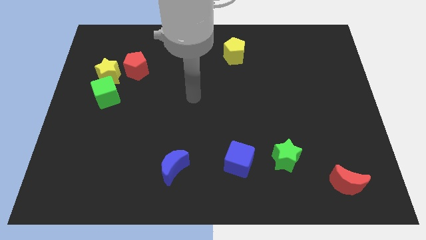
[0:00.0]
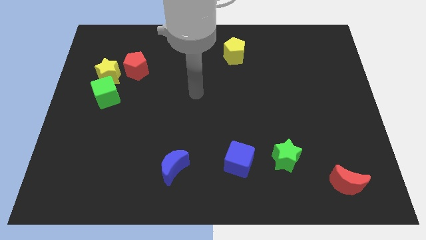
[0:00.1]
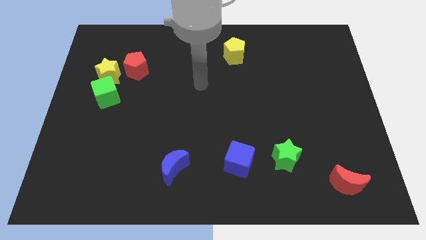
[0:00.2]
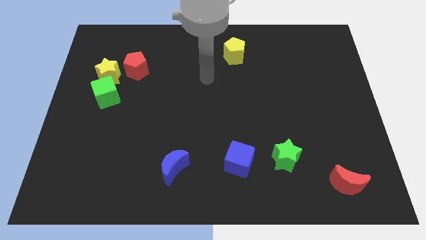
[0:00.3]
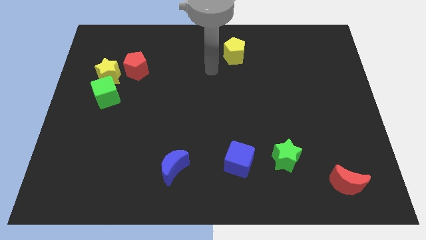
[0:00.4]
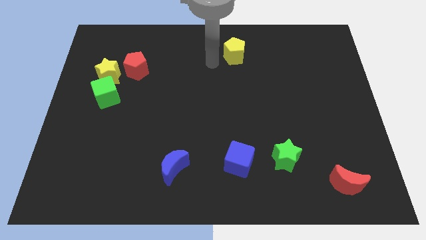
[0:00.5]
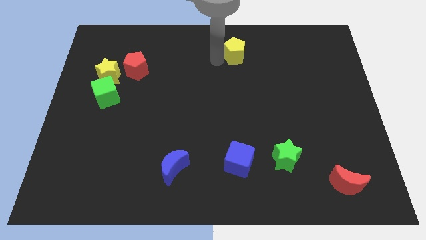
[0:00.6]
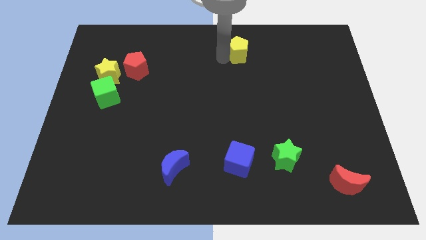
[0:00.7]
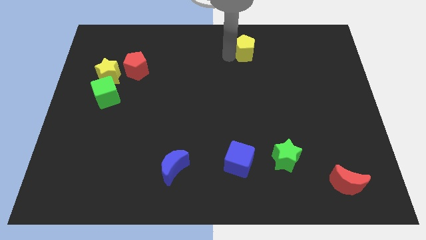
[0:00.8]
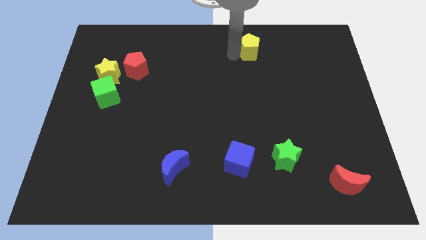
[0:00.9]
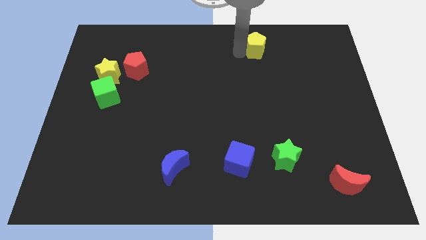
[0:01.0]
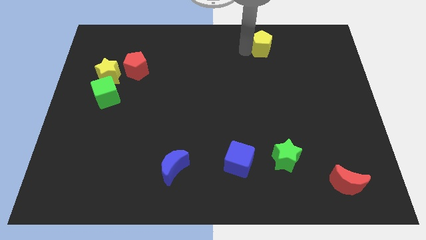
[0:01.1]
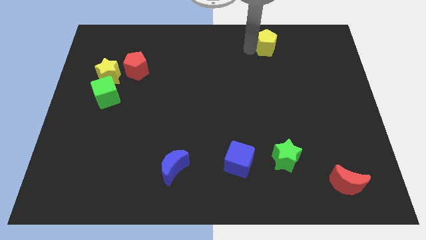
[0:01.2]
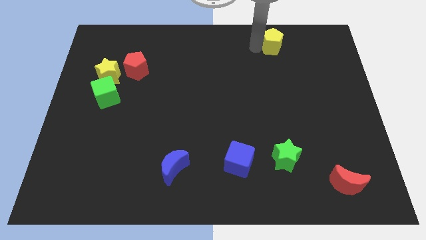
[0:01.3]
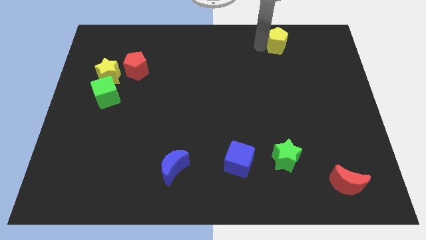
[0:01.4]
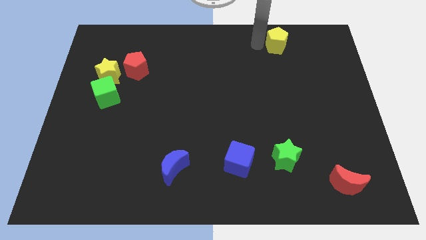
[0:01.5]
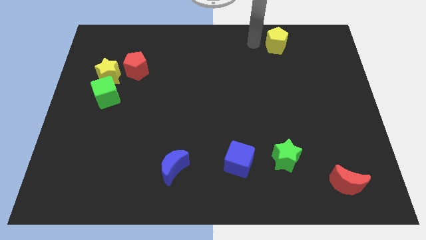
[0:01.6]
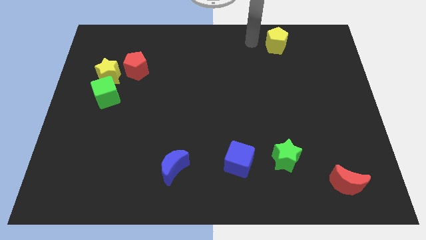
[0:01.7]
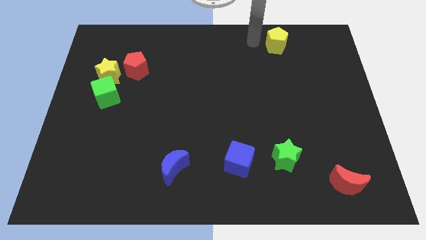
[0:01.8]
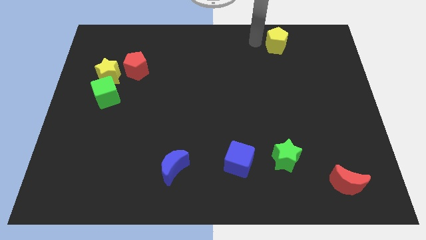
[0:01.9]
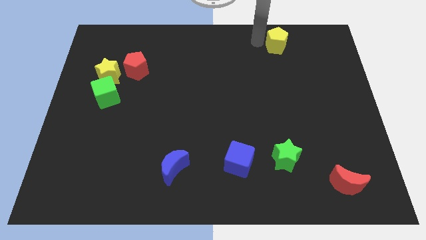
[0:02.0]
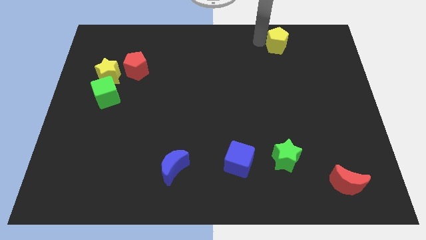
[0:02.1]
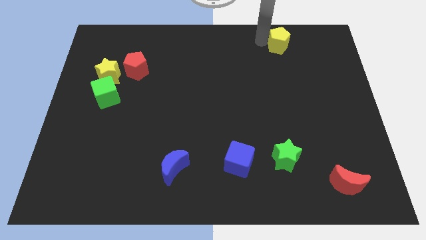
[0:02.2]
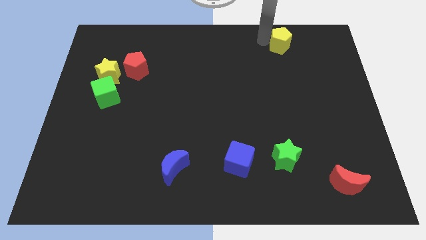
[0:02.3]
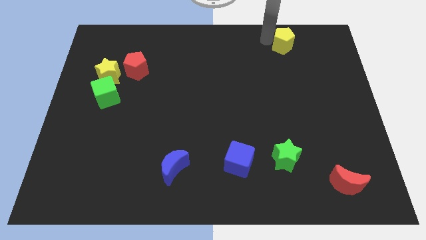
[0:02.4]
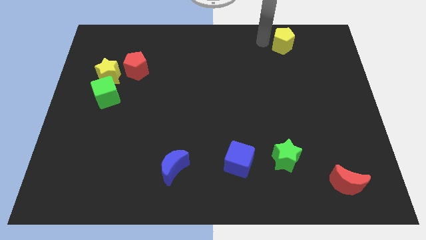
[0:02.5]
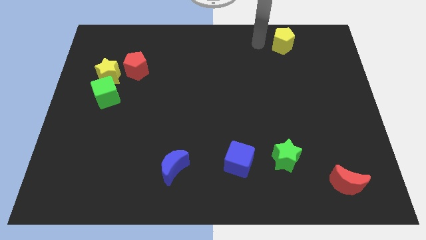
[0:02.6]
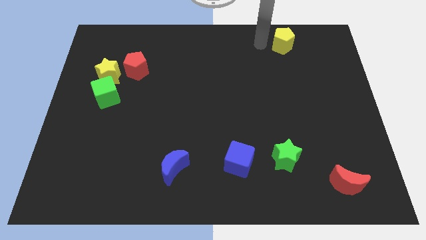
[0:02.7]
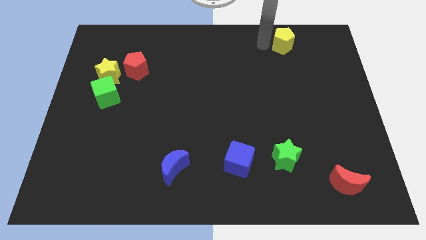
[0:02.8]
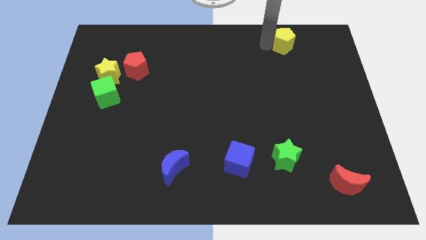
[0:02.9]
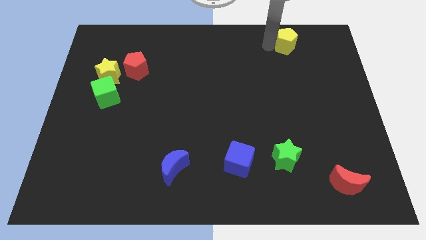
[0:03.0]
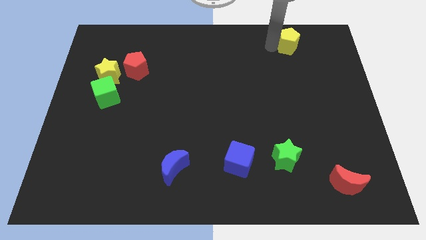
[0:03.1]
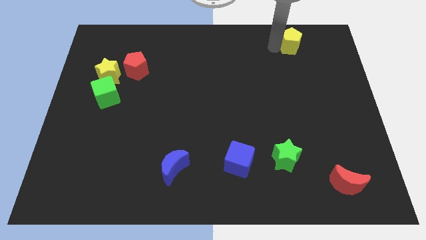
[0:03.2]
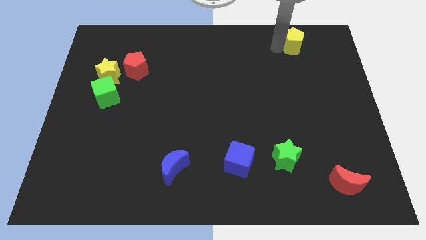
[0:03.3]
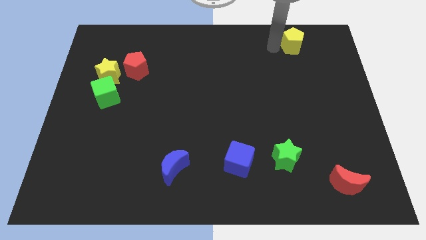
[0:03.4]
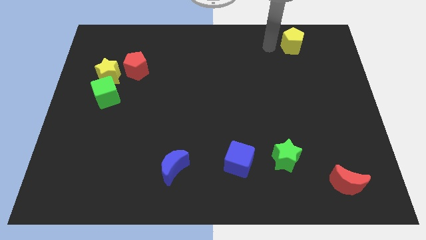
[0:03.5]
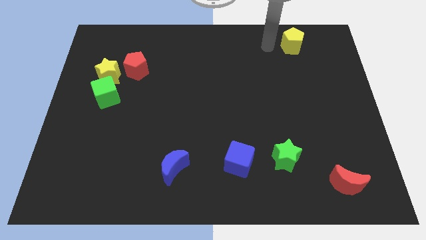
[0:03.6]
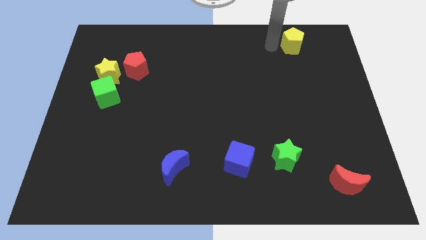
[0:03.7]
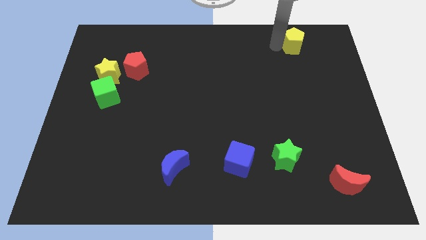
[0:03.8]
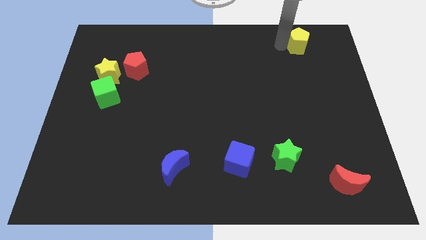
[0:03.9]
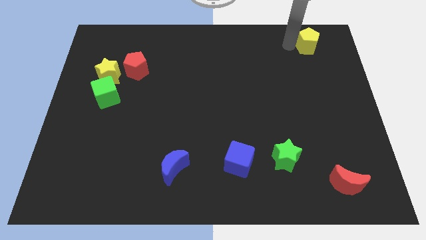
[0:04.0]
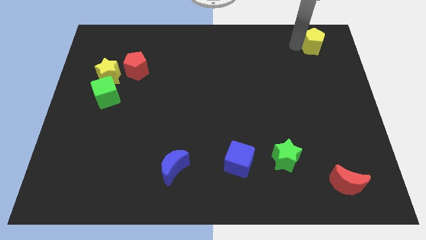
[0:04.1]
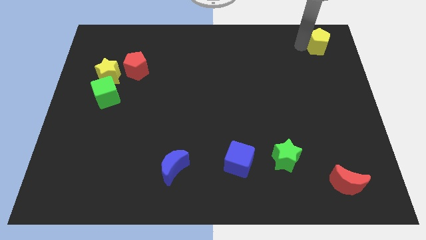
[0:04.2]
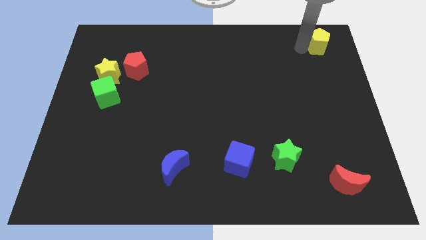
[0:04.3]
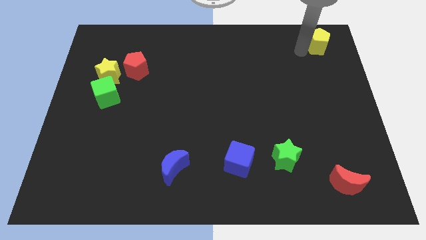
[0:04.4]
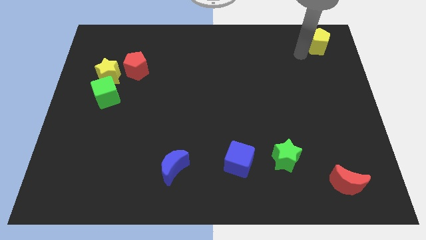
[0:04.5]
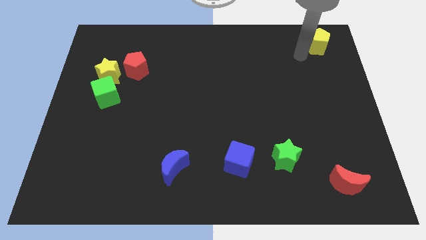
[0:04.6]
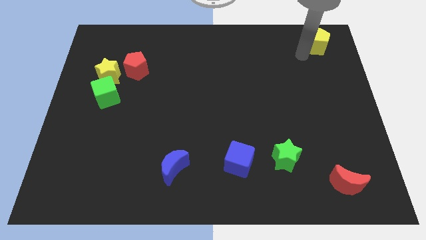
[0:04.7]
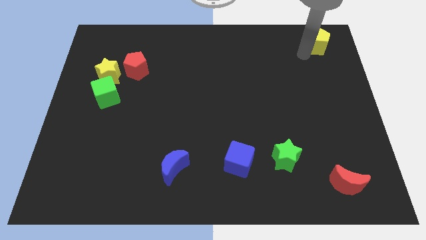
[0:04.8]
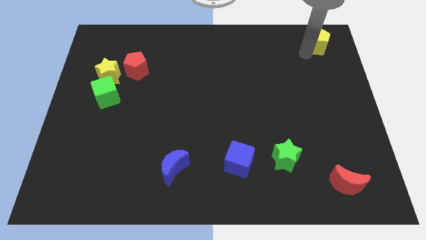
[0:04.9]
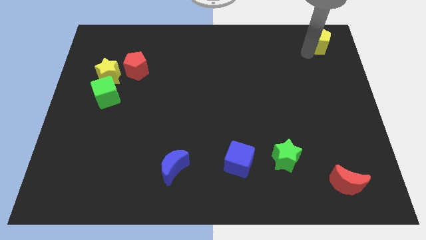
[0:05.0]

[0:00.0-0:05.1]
push the yellow pentagon to the top right corner

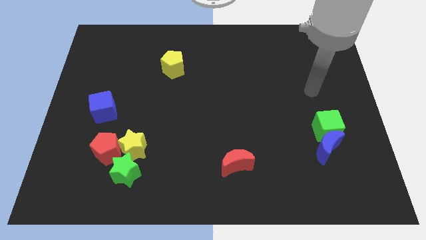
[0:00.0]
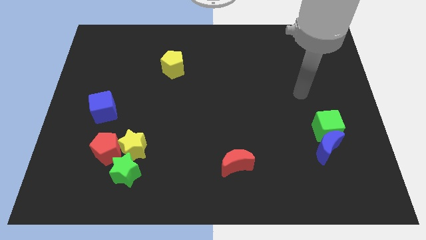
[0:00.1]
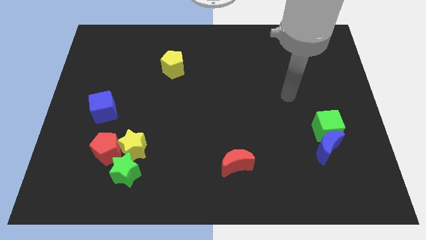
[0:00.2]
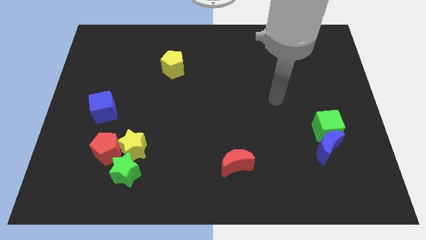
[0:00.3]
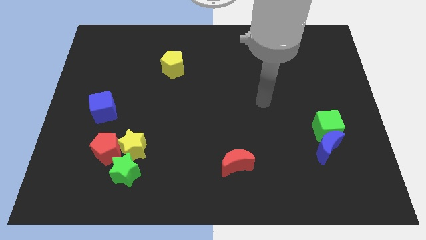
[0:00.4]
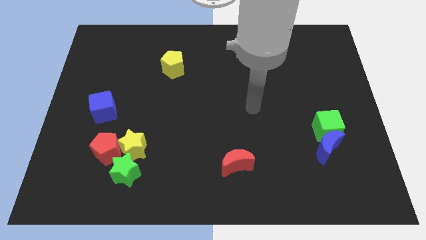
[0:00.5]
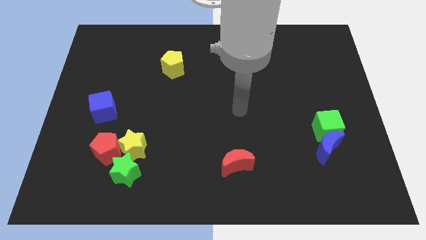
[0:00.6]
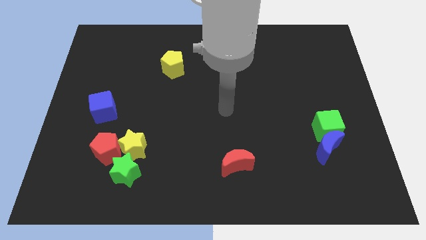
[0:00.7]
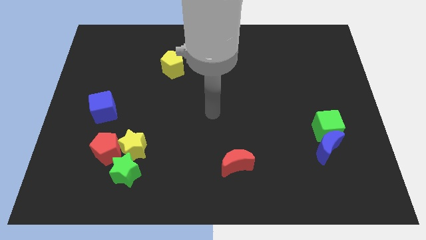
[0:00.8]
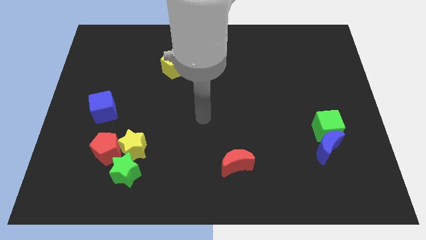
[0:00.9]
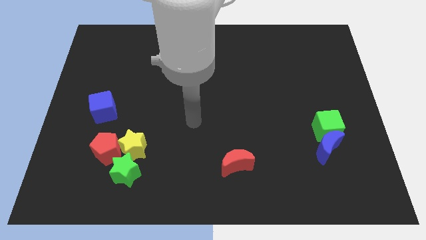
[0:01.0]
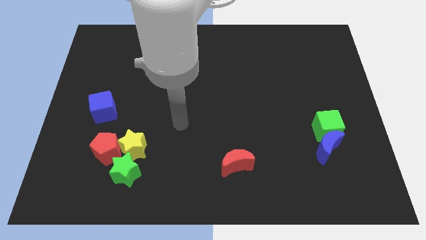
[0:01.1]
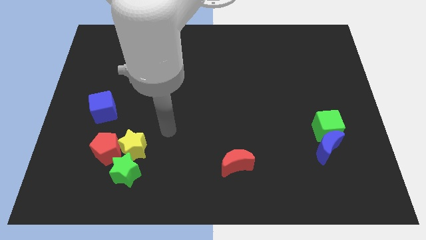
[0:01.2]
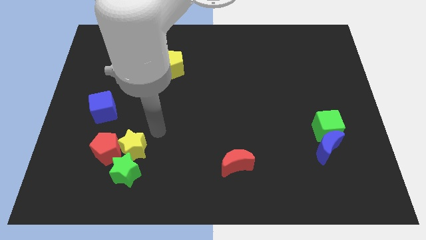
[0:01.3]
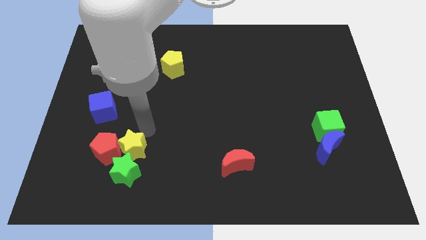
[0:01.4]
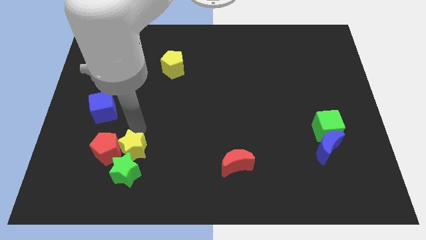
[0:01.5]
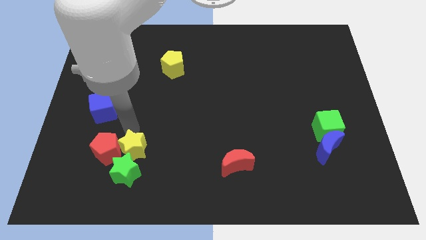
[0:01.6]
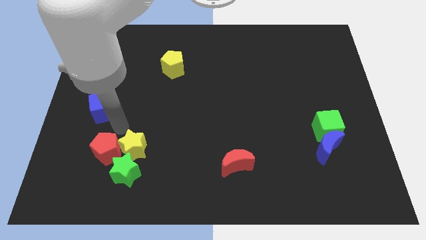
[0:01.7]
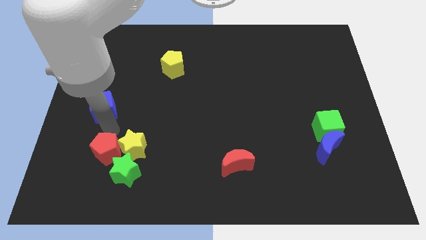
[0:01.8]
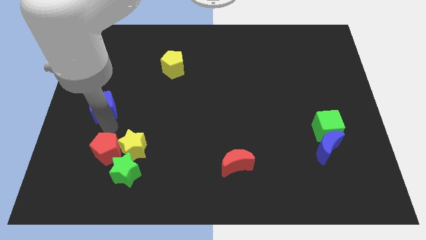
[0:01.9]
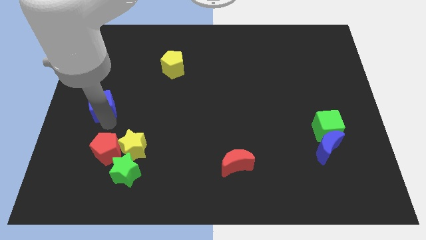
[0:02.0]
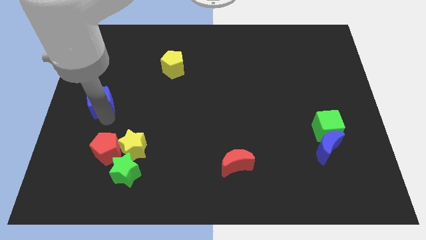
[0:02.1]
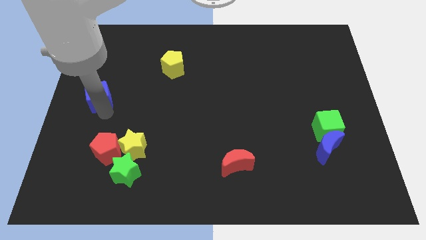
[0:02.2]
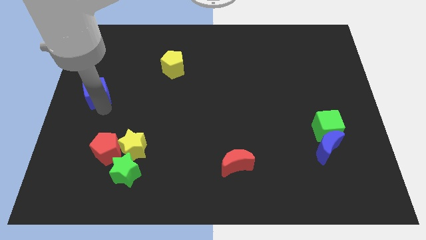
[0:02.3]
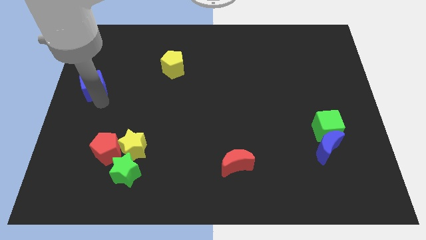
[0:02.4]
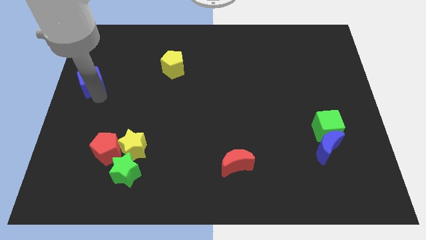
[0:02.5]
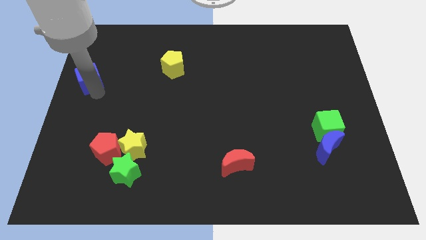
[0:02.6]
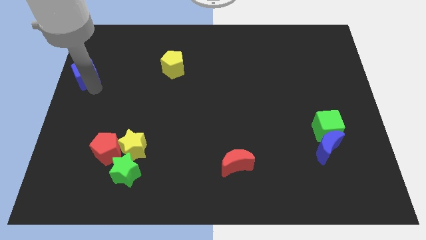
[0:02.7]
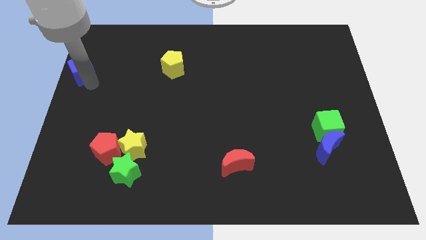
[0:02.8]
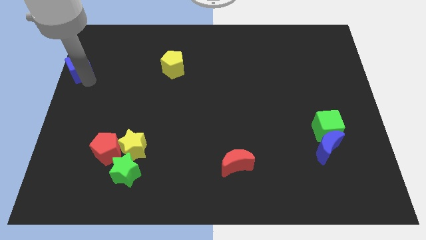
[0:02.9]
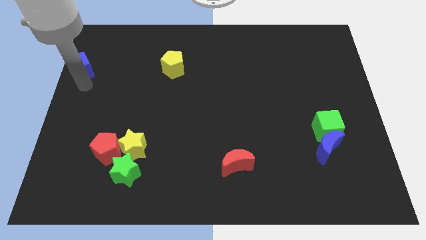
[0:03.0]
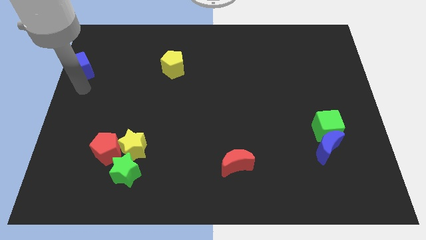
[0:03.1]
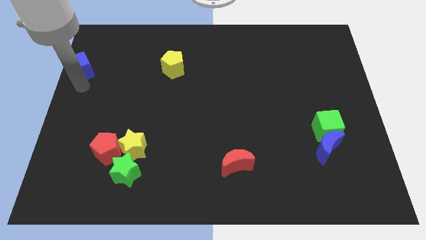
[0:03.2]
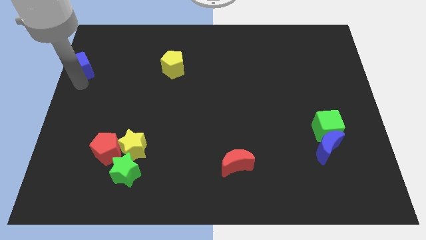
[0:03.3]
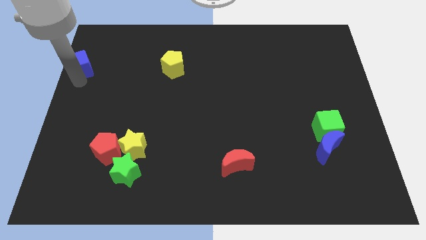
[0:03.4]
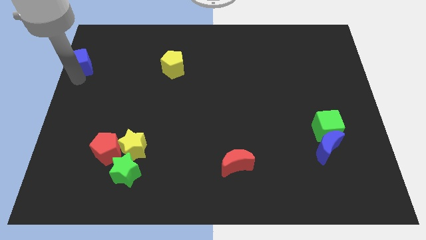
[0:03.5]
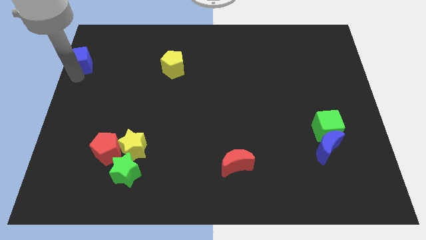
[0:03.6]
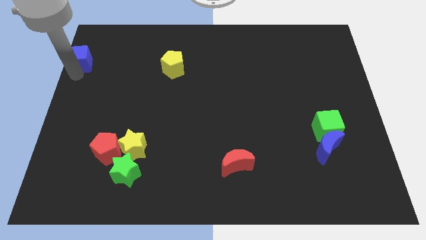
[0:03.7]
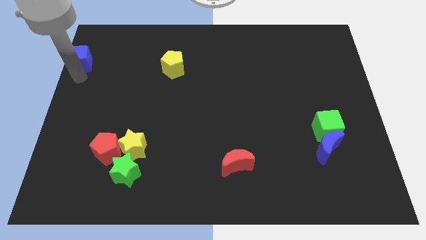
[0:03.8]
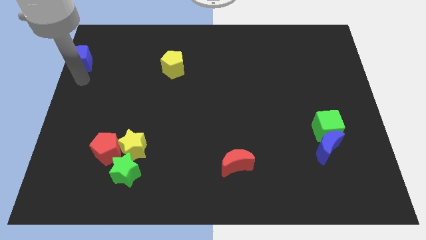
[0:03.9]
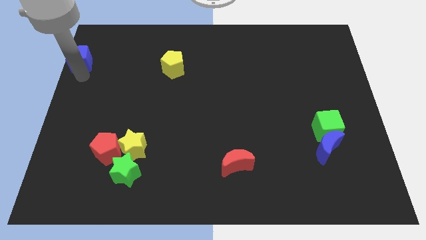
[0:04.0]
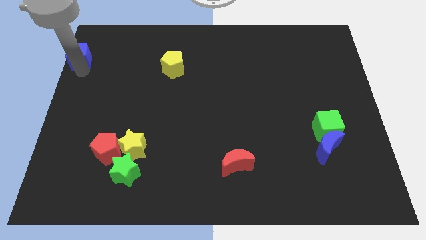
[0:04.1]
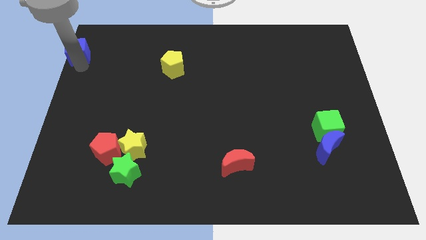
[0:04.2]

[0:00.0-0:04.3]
push the blue cube to the upper left corner
